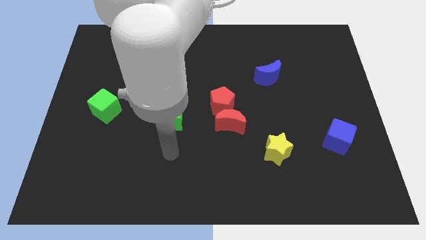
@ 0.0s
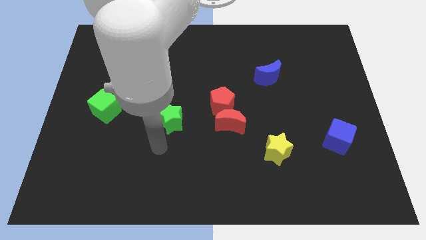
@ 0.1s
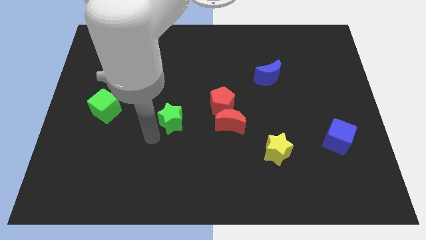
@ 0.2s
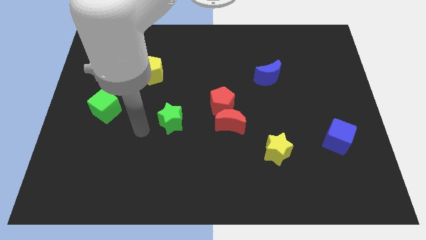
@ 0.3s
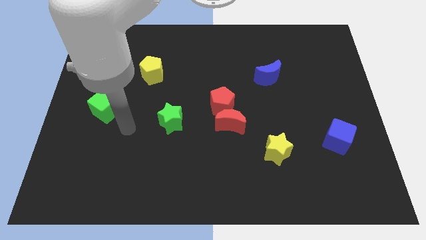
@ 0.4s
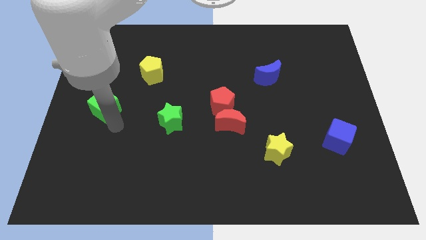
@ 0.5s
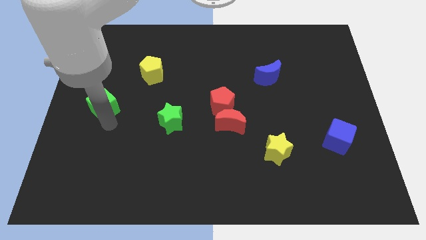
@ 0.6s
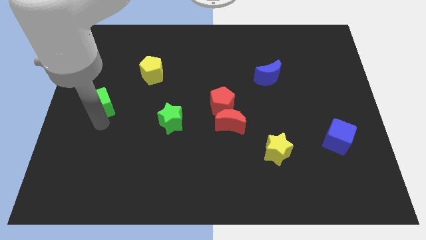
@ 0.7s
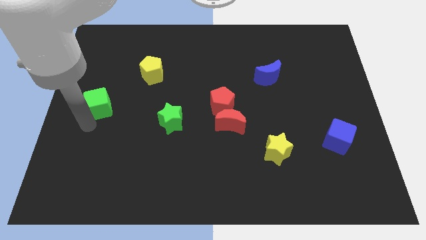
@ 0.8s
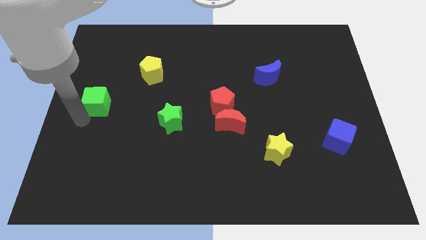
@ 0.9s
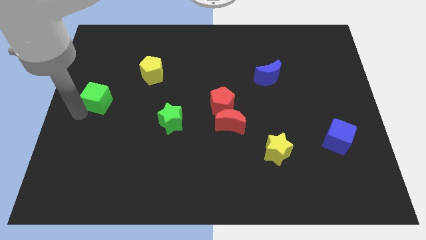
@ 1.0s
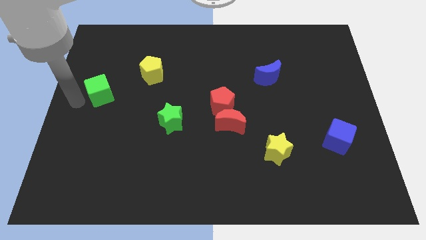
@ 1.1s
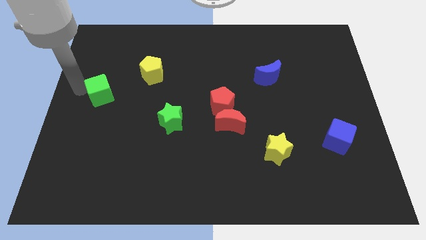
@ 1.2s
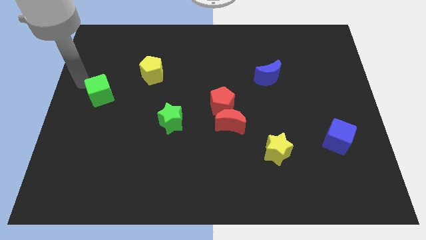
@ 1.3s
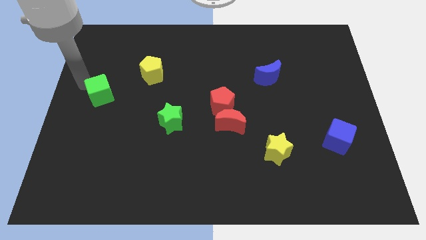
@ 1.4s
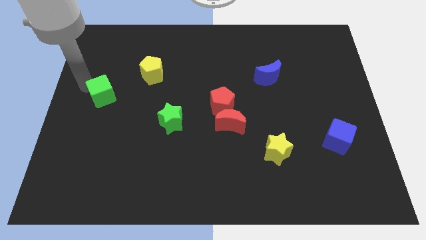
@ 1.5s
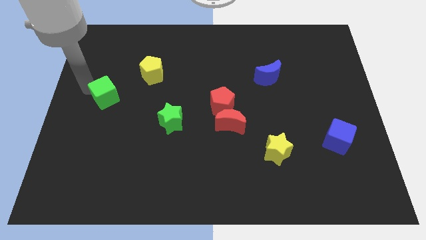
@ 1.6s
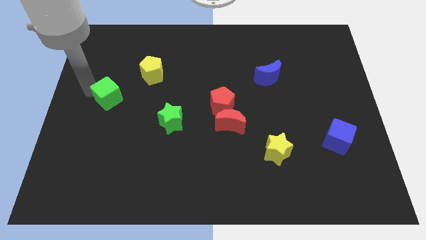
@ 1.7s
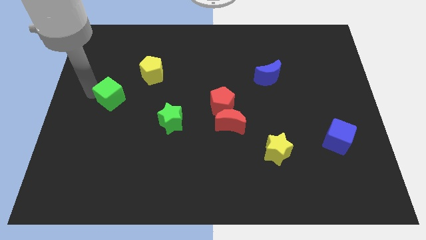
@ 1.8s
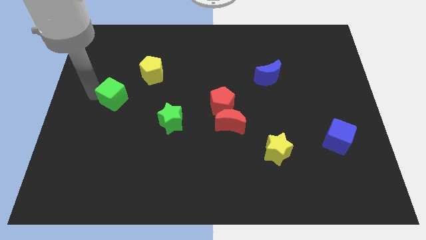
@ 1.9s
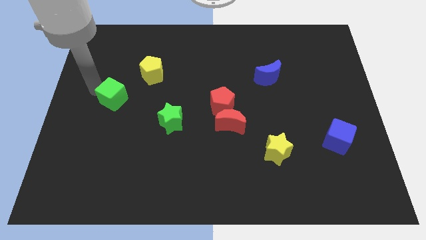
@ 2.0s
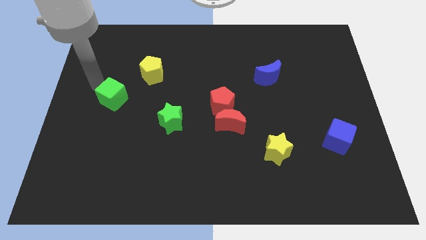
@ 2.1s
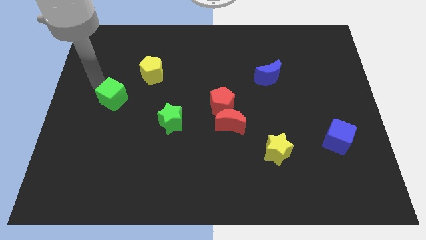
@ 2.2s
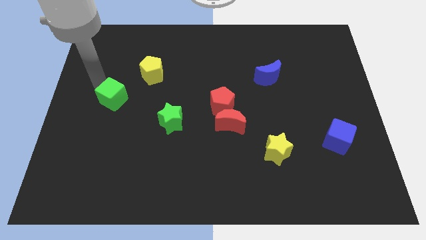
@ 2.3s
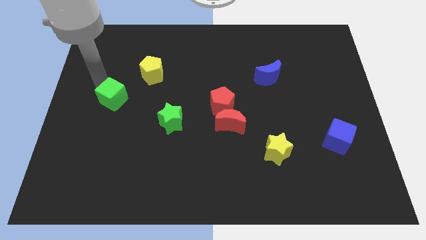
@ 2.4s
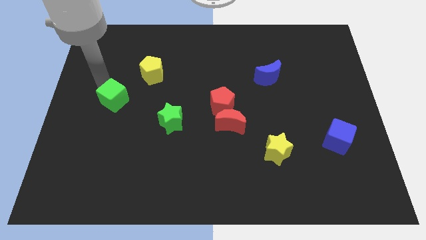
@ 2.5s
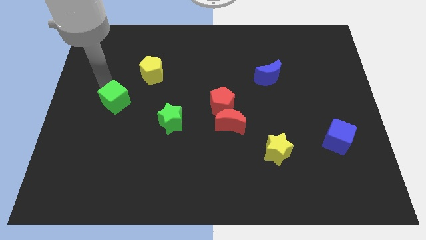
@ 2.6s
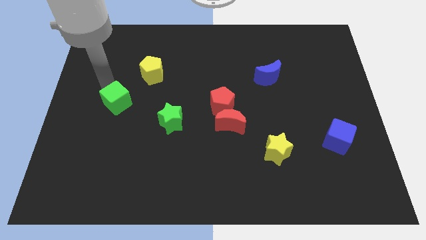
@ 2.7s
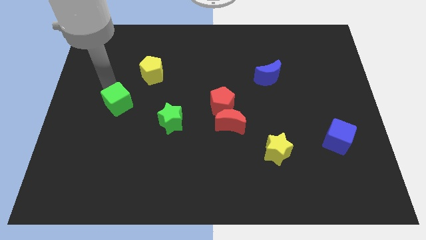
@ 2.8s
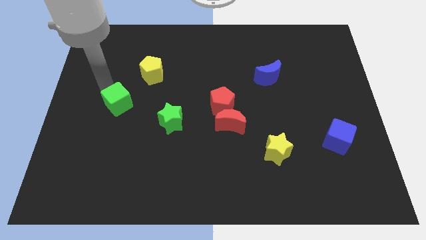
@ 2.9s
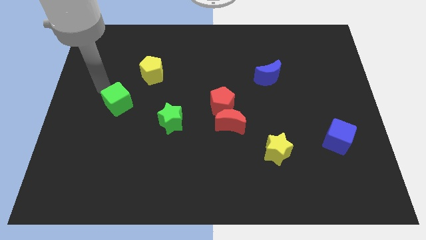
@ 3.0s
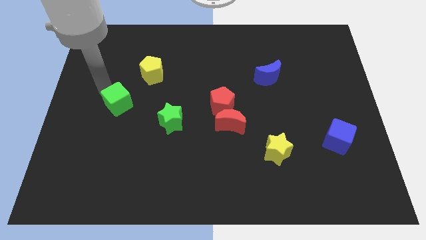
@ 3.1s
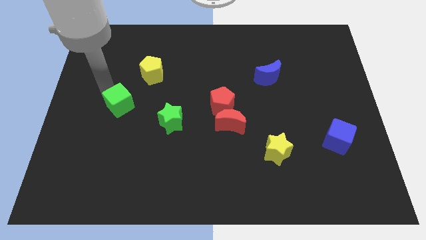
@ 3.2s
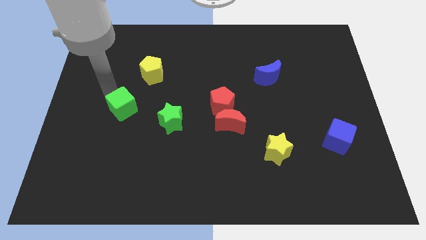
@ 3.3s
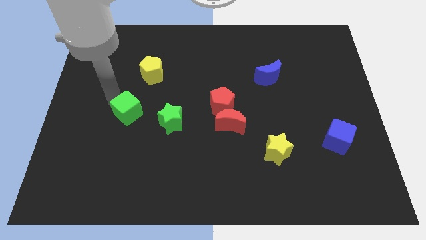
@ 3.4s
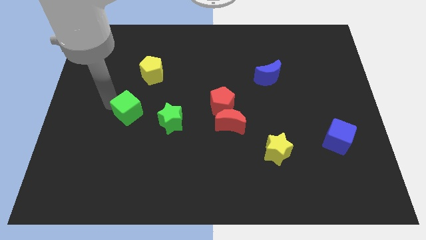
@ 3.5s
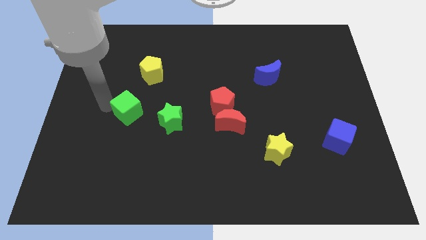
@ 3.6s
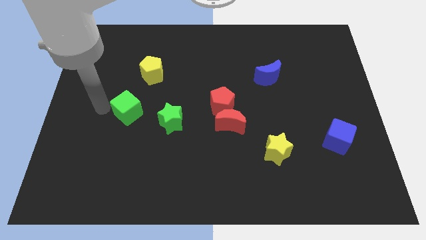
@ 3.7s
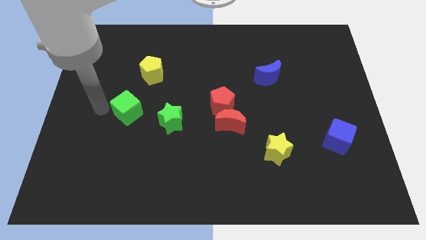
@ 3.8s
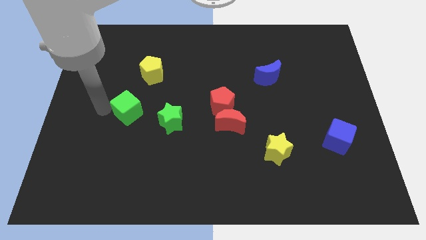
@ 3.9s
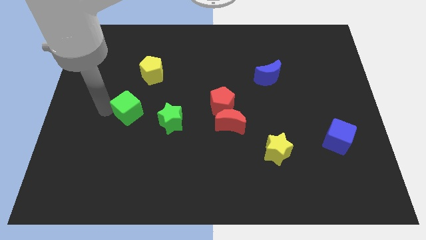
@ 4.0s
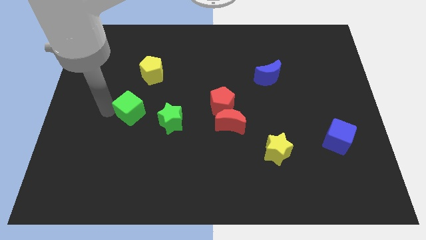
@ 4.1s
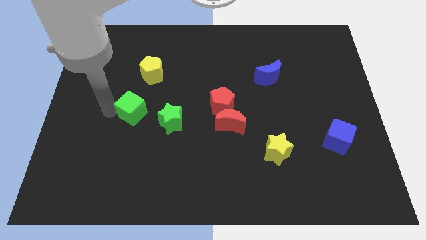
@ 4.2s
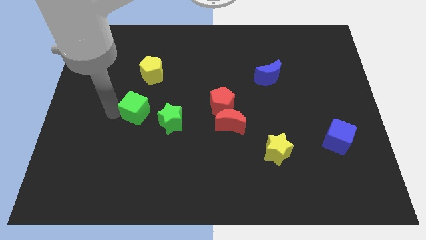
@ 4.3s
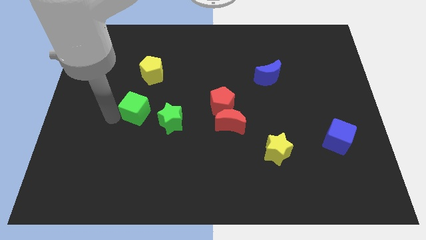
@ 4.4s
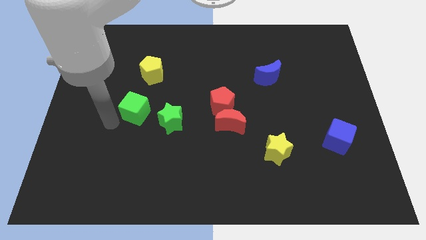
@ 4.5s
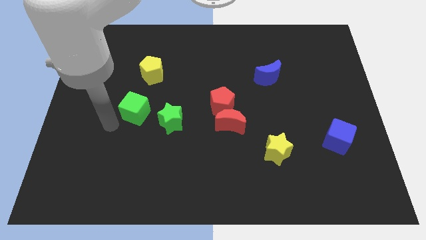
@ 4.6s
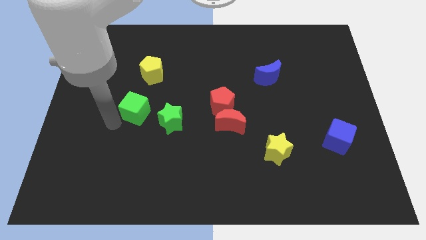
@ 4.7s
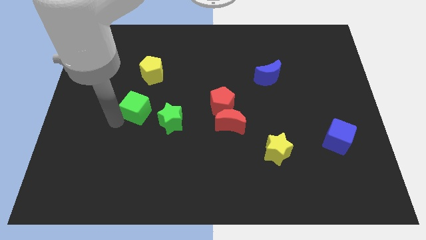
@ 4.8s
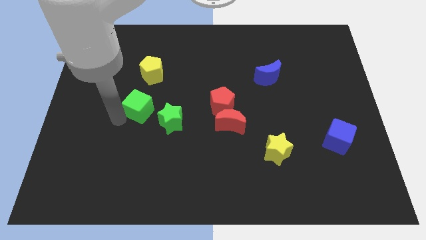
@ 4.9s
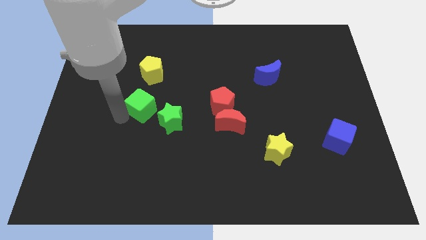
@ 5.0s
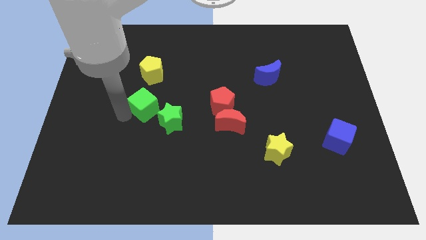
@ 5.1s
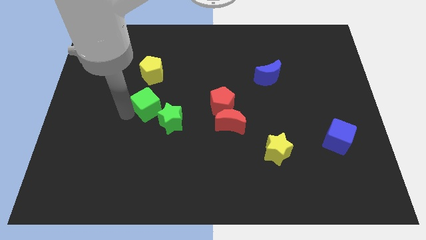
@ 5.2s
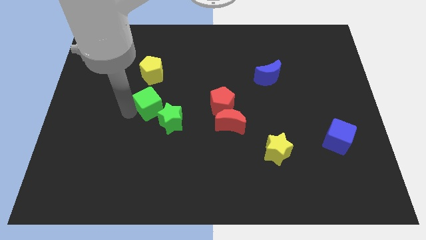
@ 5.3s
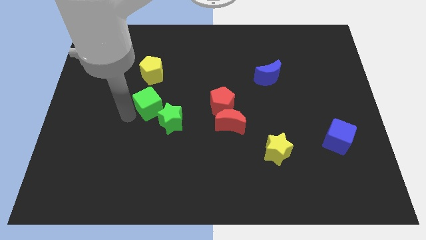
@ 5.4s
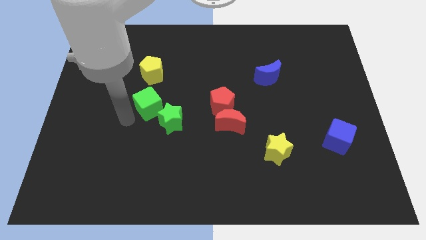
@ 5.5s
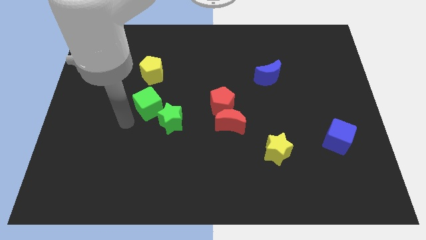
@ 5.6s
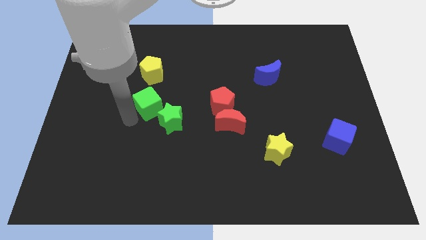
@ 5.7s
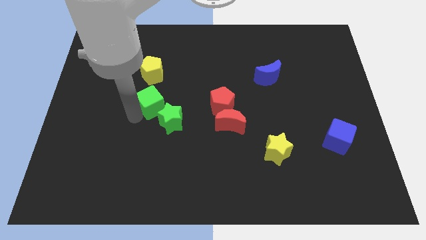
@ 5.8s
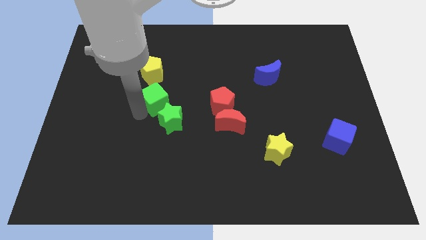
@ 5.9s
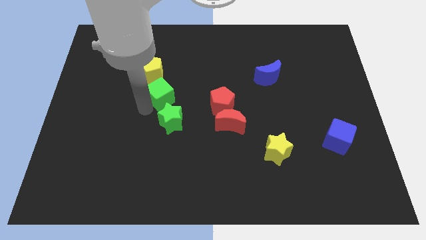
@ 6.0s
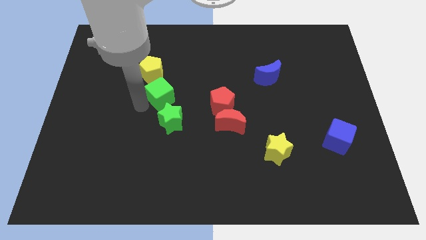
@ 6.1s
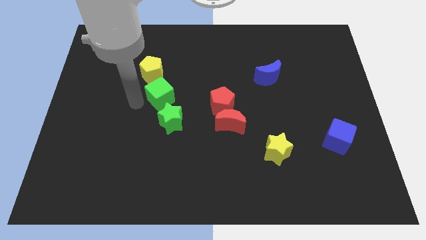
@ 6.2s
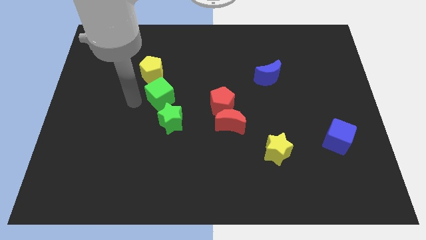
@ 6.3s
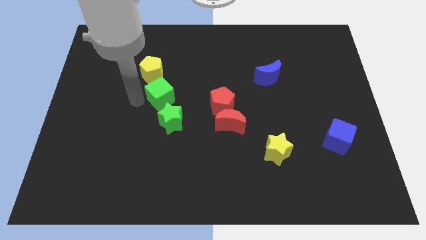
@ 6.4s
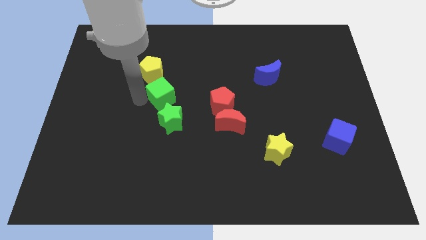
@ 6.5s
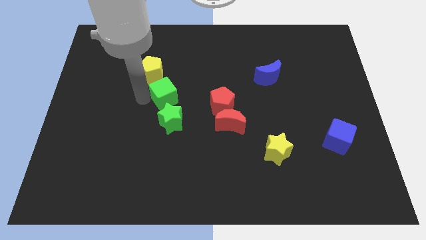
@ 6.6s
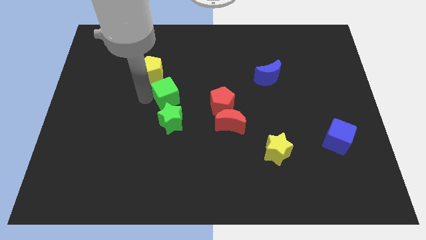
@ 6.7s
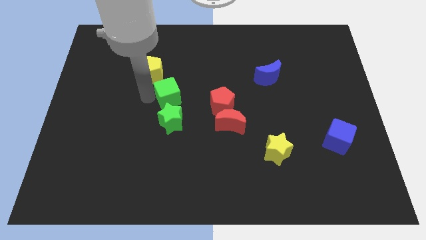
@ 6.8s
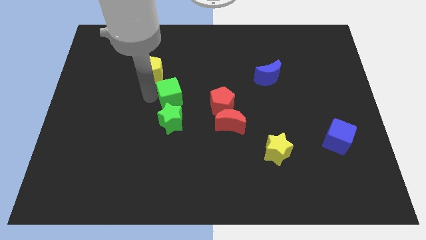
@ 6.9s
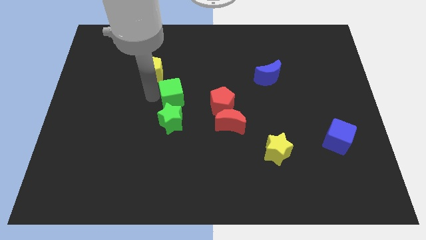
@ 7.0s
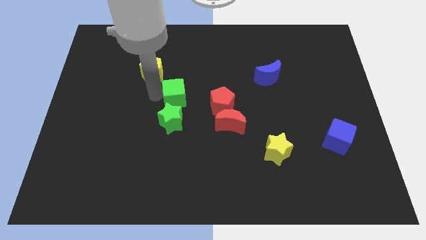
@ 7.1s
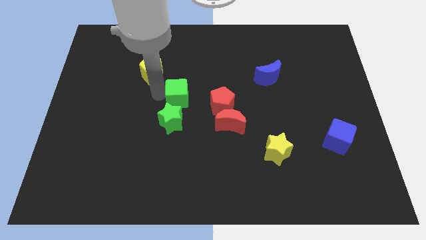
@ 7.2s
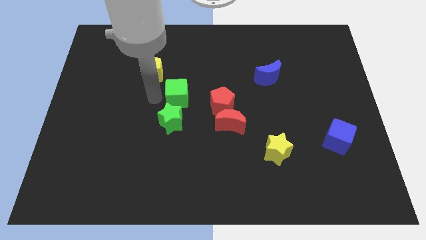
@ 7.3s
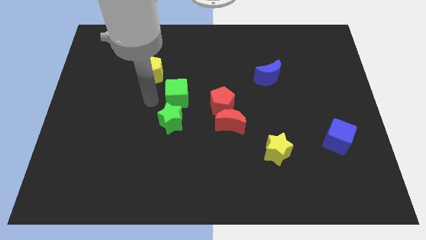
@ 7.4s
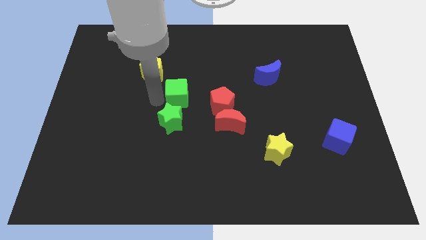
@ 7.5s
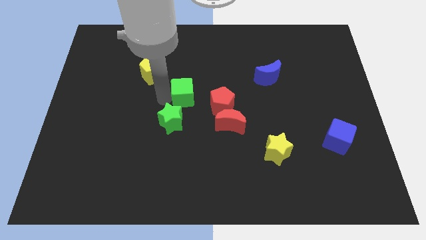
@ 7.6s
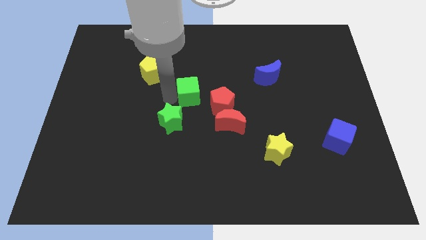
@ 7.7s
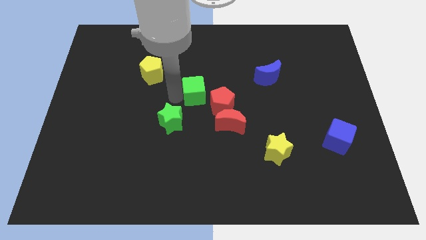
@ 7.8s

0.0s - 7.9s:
push the green cube to the right
